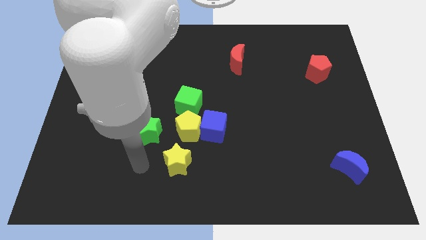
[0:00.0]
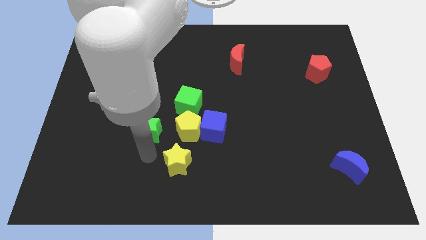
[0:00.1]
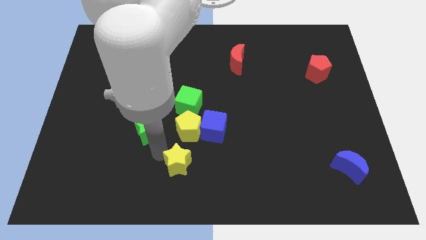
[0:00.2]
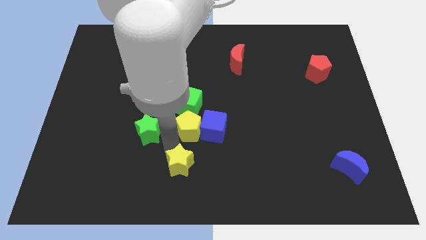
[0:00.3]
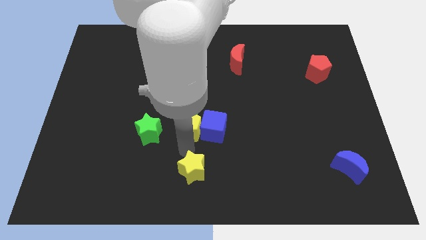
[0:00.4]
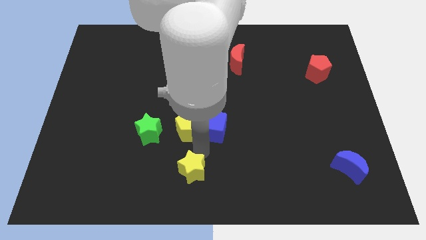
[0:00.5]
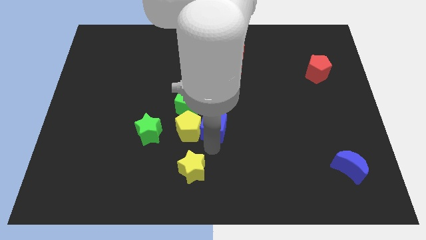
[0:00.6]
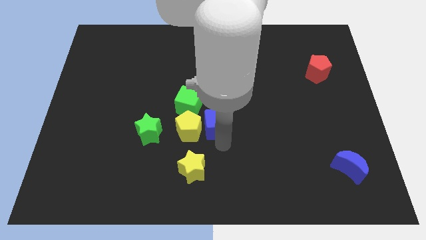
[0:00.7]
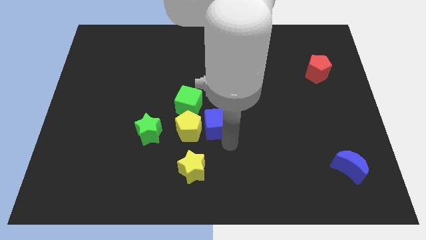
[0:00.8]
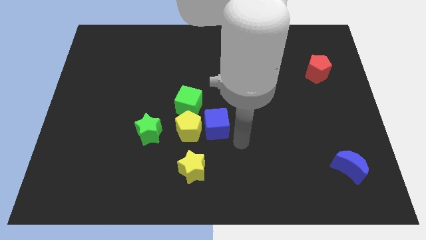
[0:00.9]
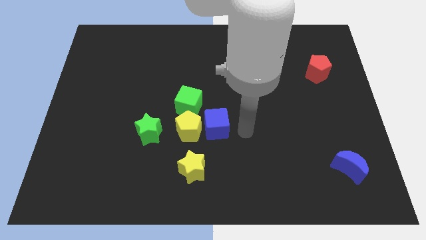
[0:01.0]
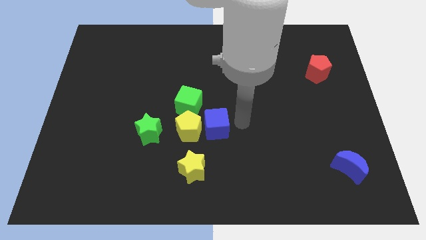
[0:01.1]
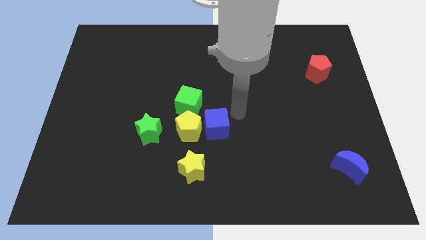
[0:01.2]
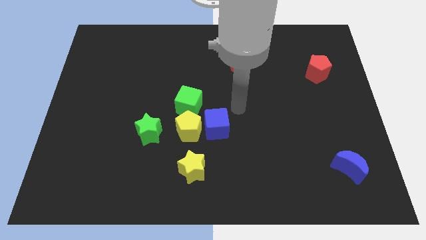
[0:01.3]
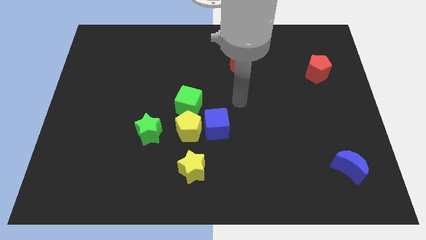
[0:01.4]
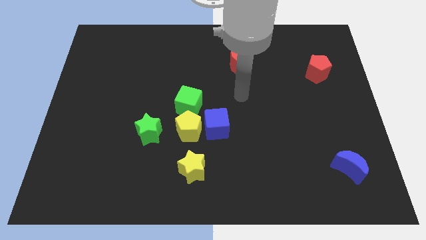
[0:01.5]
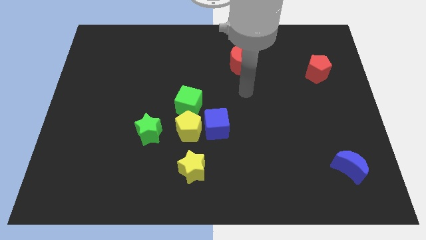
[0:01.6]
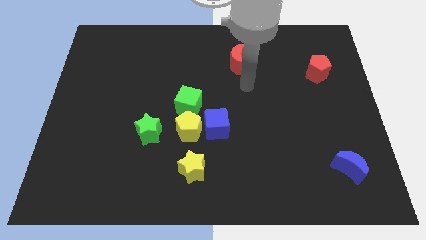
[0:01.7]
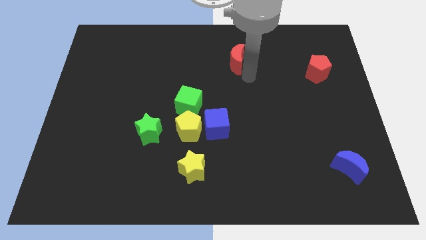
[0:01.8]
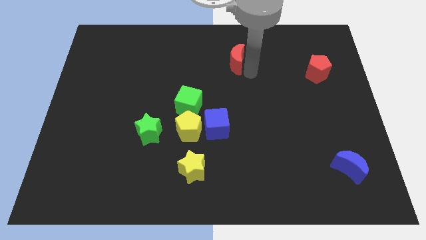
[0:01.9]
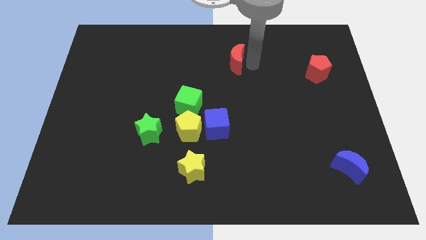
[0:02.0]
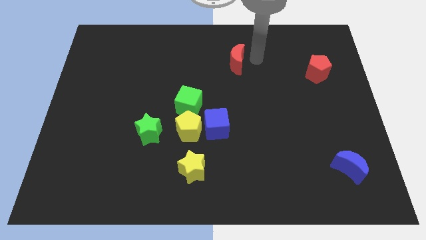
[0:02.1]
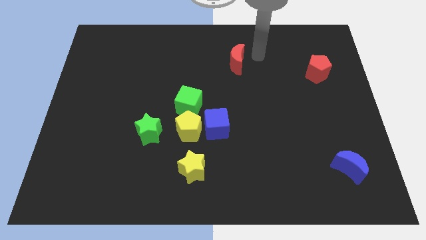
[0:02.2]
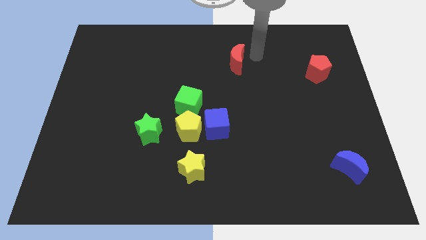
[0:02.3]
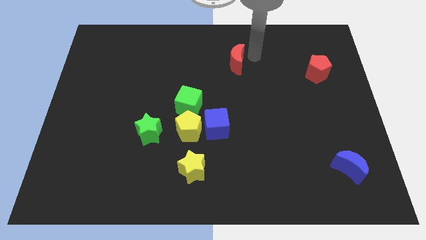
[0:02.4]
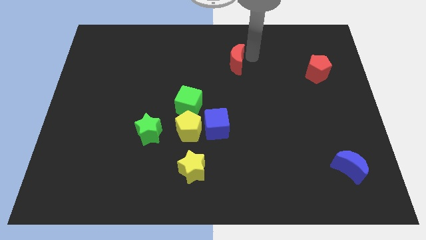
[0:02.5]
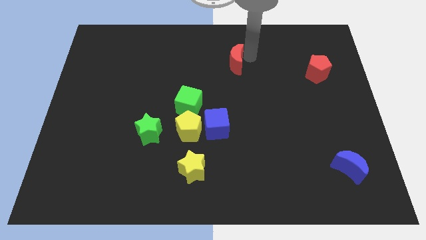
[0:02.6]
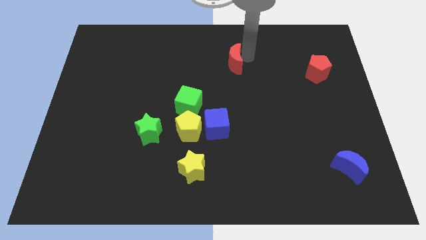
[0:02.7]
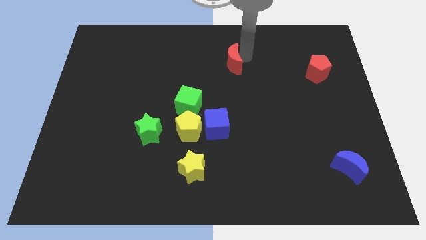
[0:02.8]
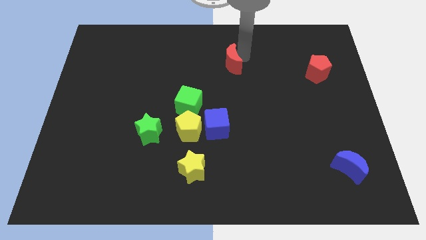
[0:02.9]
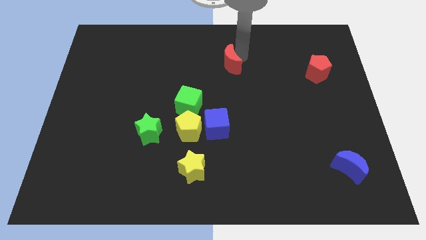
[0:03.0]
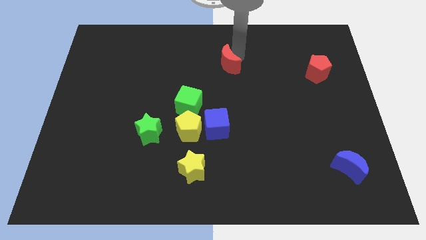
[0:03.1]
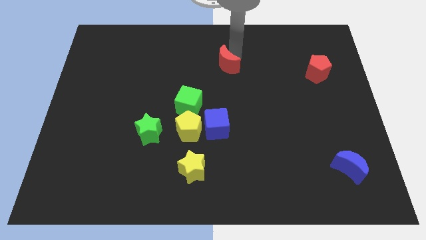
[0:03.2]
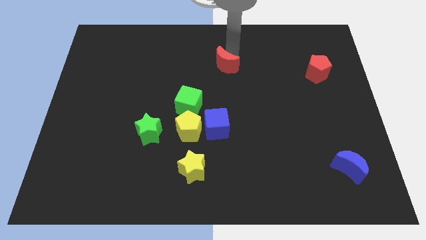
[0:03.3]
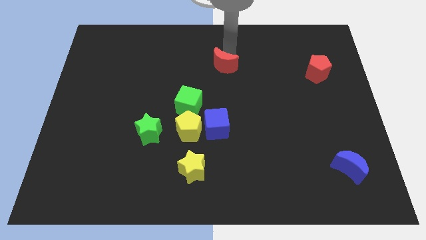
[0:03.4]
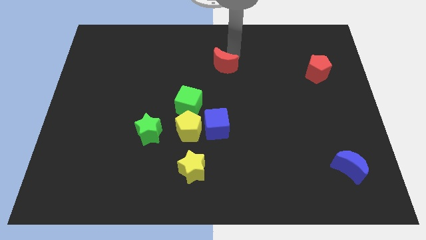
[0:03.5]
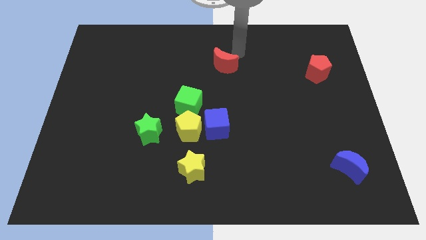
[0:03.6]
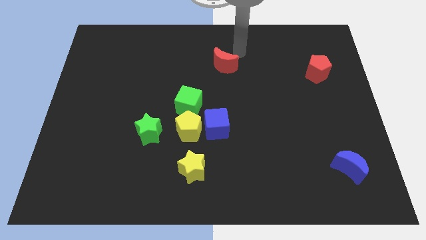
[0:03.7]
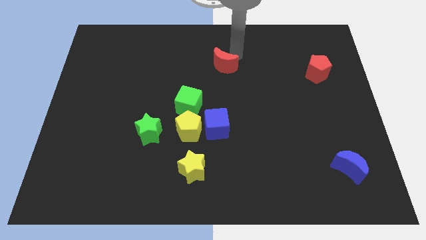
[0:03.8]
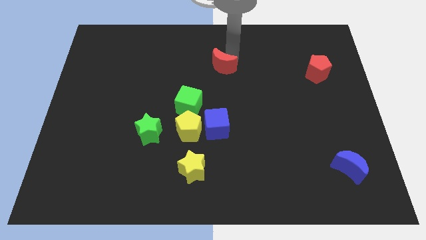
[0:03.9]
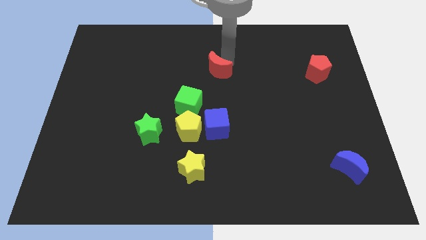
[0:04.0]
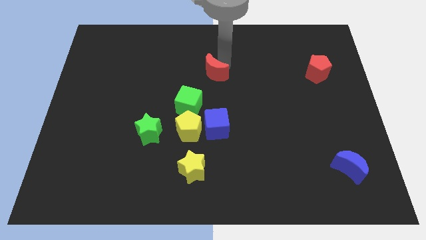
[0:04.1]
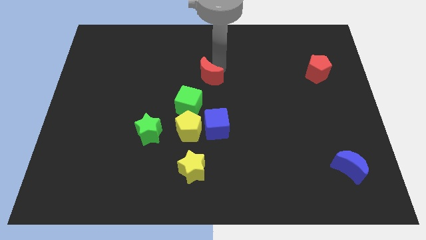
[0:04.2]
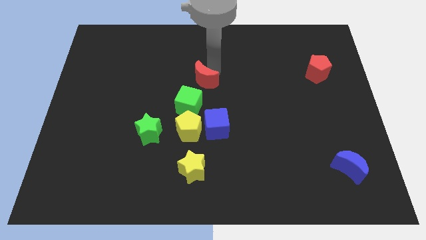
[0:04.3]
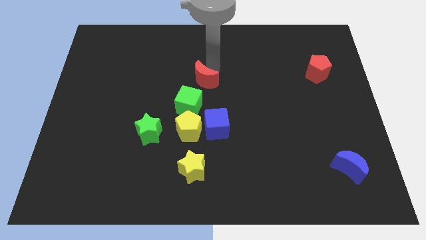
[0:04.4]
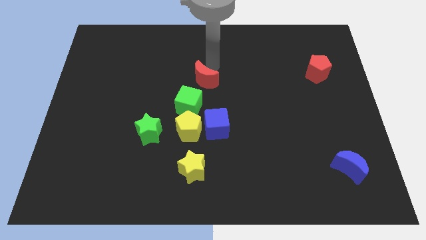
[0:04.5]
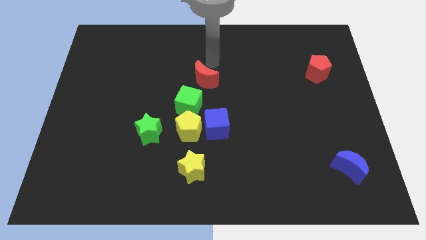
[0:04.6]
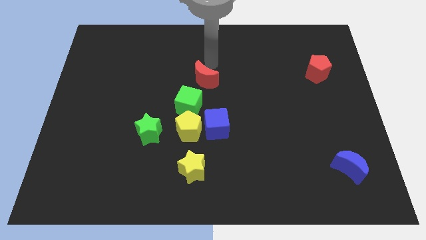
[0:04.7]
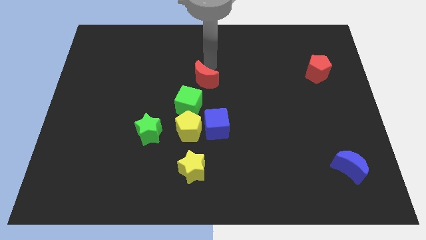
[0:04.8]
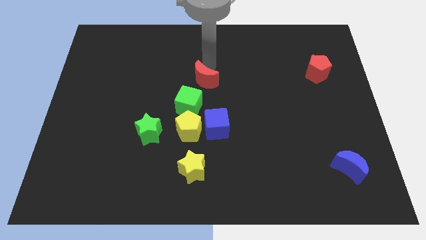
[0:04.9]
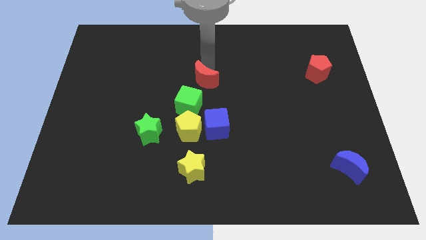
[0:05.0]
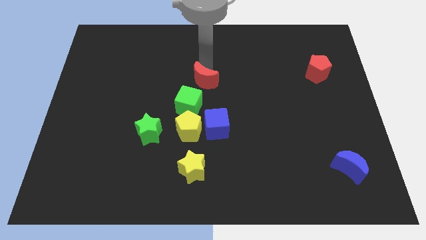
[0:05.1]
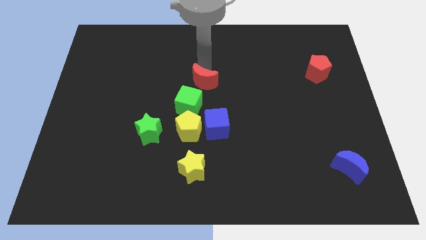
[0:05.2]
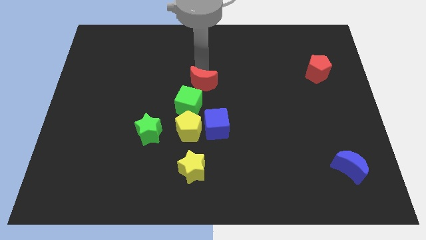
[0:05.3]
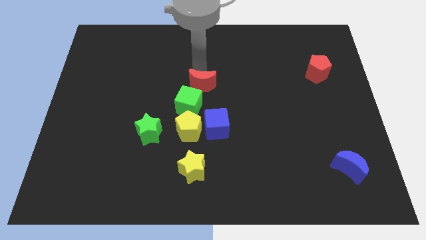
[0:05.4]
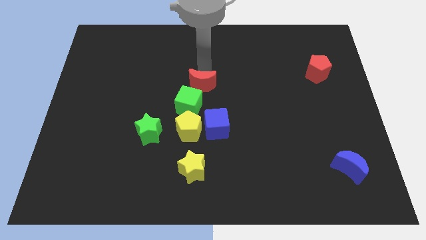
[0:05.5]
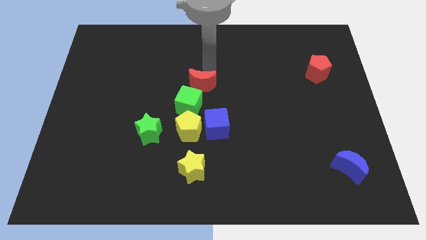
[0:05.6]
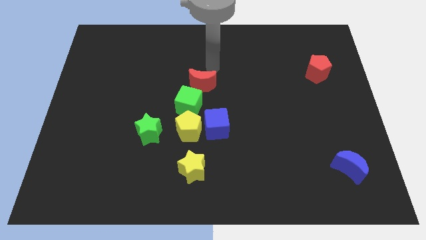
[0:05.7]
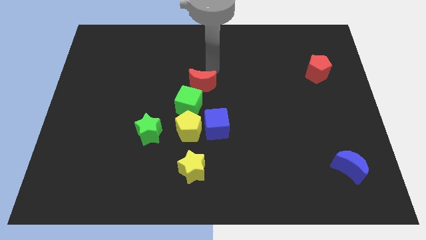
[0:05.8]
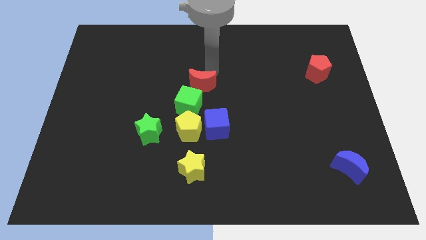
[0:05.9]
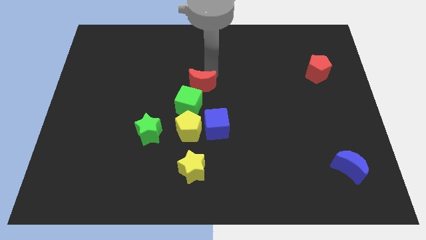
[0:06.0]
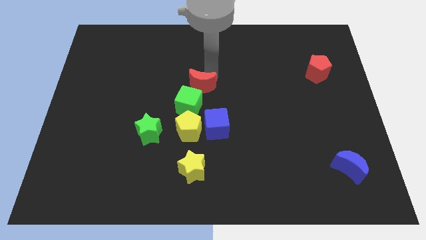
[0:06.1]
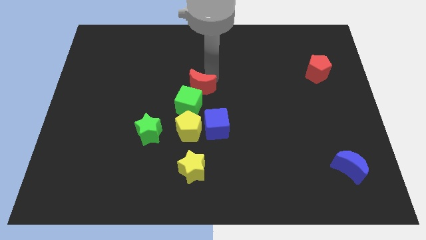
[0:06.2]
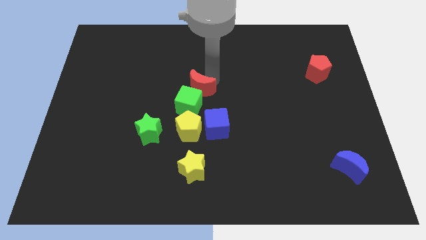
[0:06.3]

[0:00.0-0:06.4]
put the red moon to the green cube

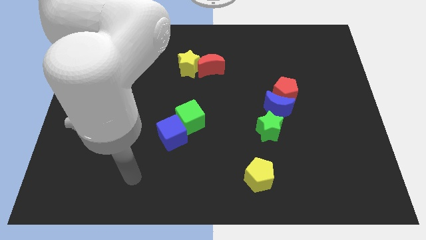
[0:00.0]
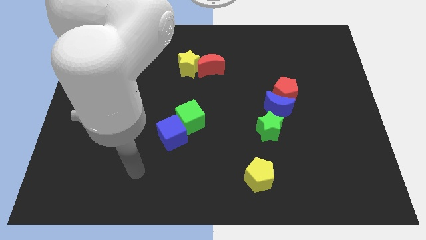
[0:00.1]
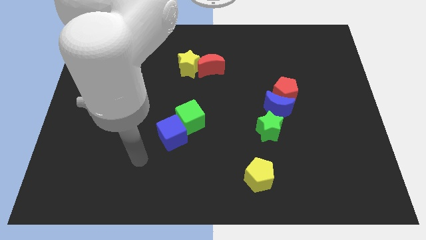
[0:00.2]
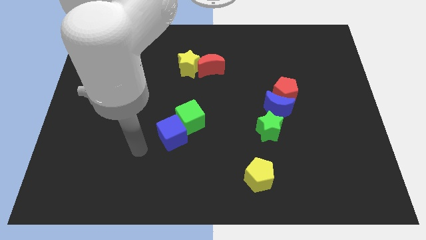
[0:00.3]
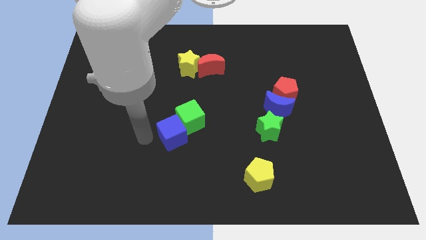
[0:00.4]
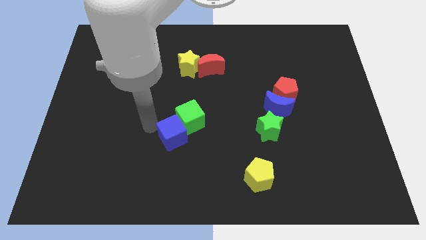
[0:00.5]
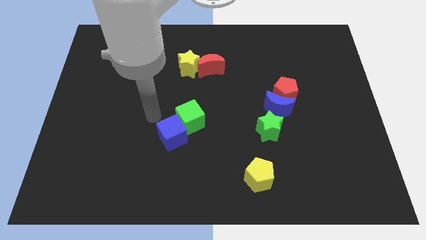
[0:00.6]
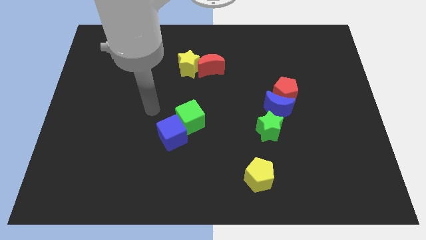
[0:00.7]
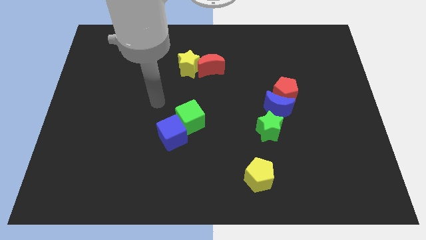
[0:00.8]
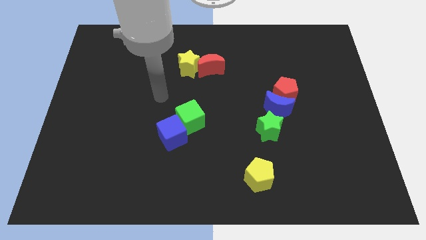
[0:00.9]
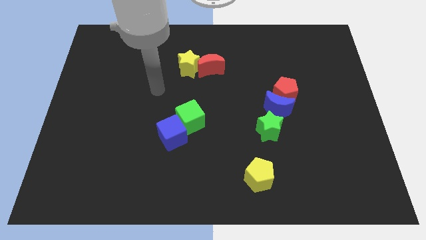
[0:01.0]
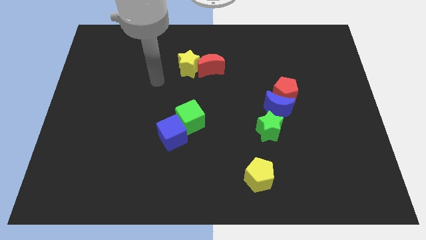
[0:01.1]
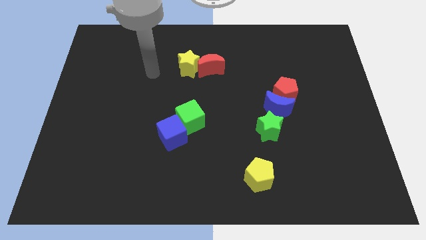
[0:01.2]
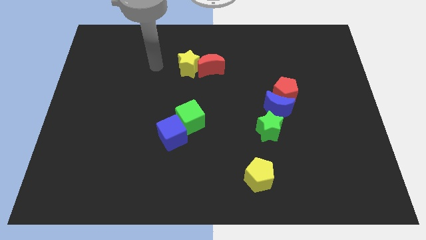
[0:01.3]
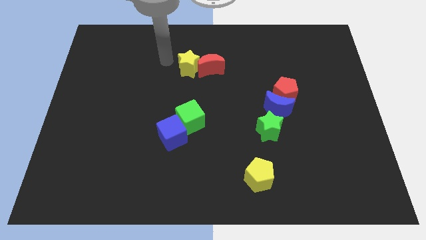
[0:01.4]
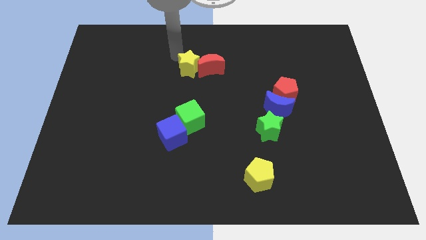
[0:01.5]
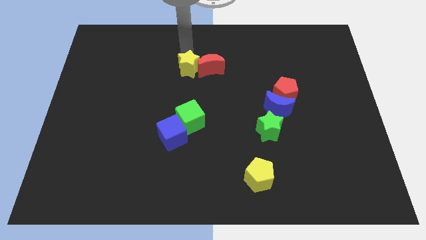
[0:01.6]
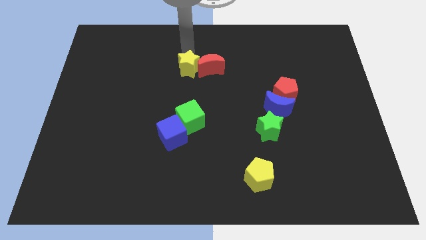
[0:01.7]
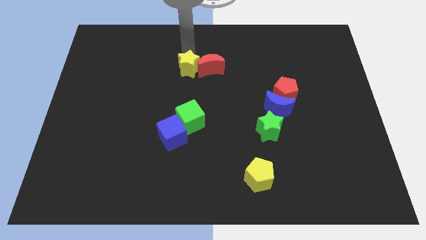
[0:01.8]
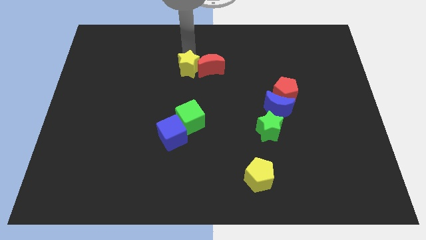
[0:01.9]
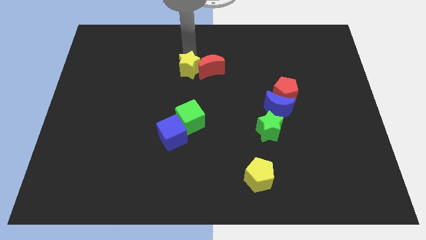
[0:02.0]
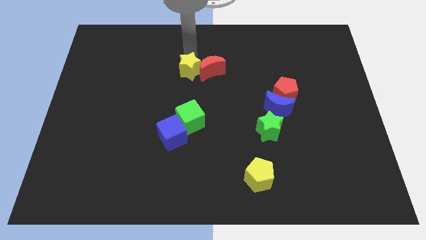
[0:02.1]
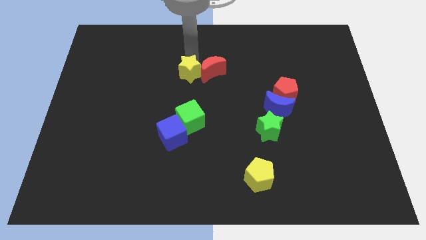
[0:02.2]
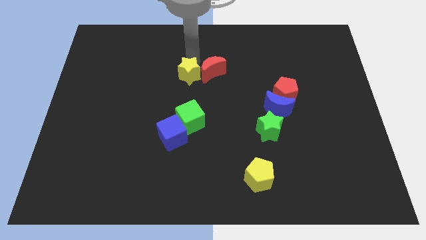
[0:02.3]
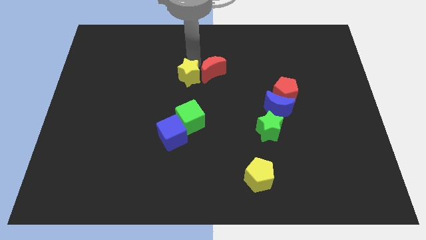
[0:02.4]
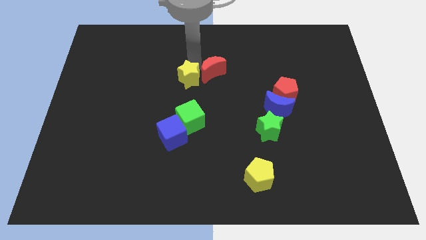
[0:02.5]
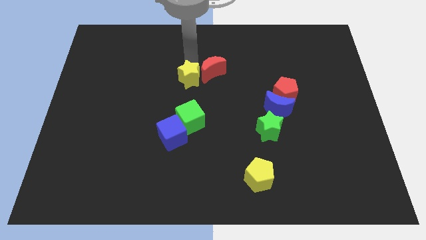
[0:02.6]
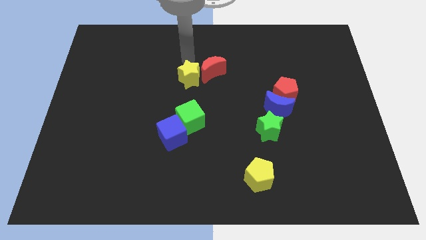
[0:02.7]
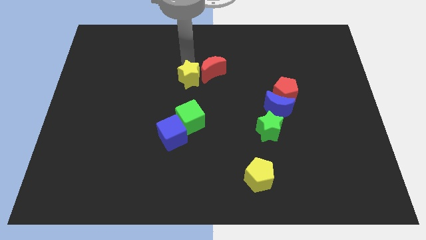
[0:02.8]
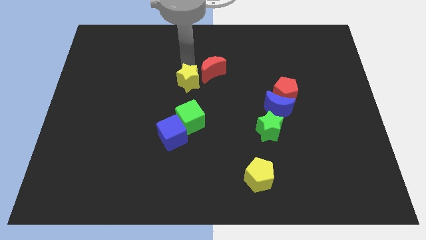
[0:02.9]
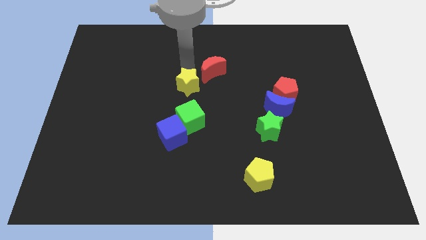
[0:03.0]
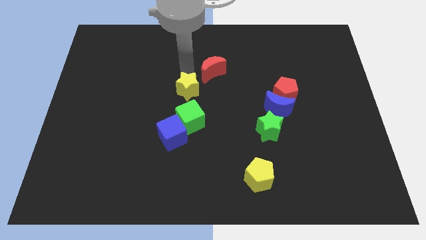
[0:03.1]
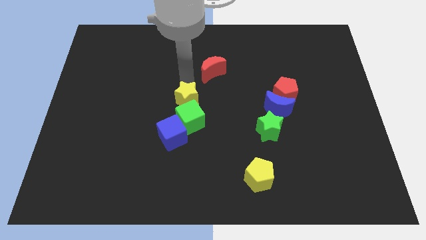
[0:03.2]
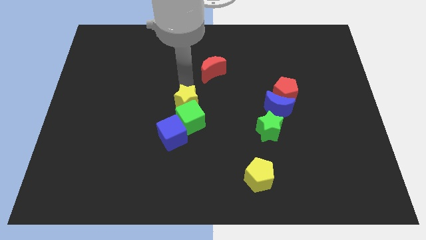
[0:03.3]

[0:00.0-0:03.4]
push the yellow star next to the green cube
